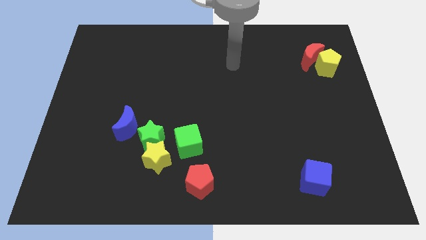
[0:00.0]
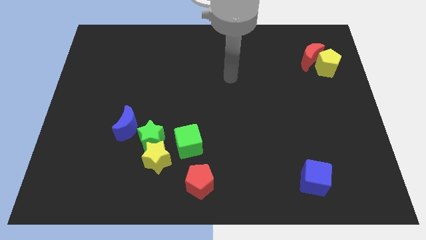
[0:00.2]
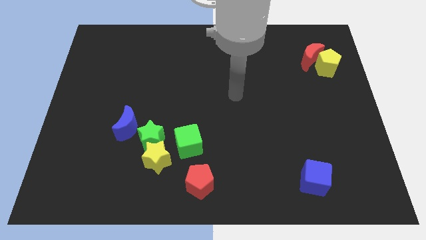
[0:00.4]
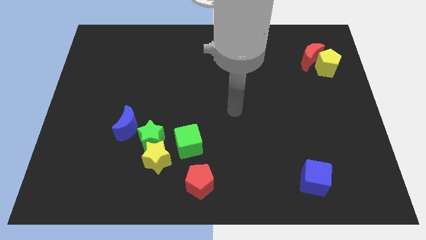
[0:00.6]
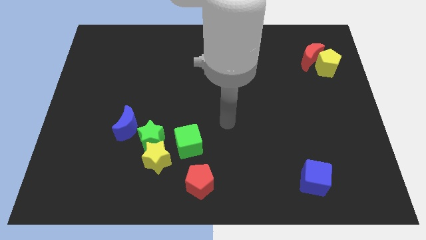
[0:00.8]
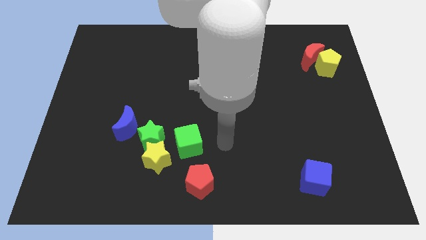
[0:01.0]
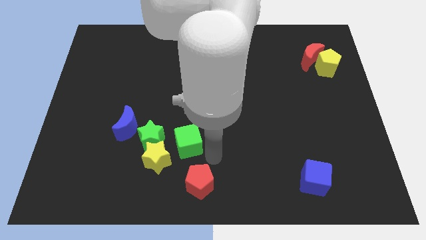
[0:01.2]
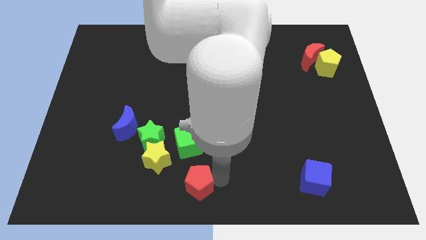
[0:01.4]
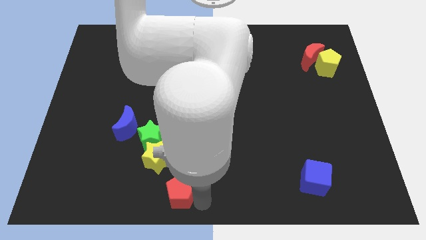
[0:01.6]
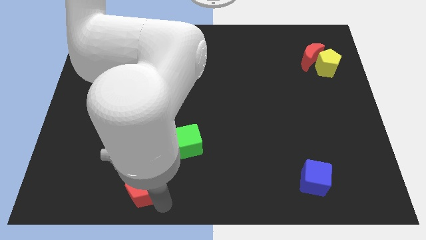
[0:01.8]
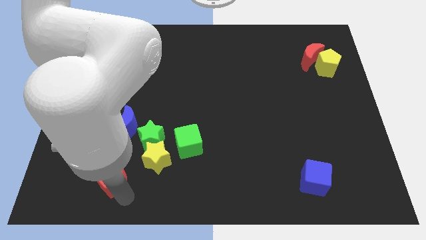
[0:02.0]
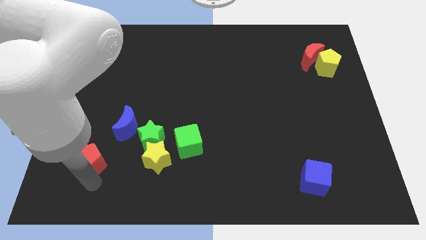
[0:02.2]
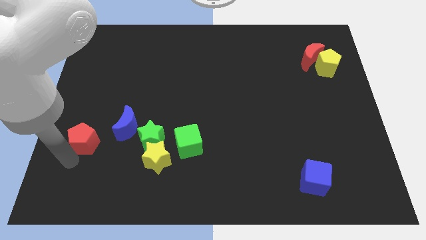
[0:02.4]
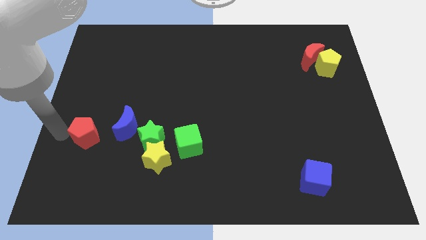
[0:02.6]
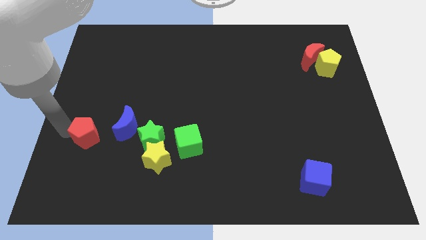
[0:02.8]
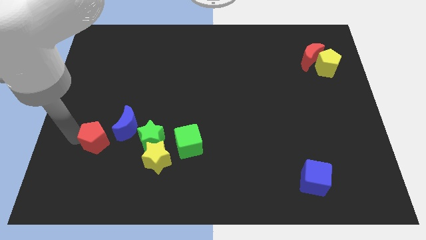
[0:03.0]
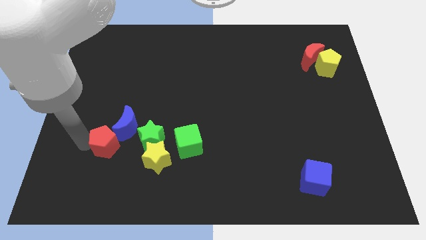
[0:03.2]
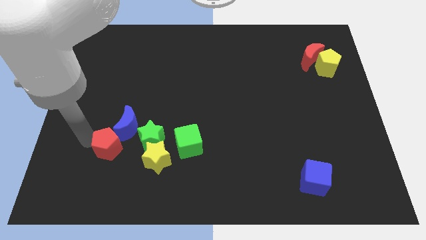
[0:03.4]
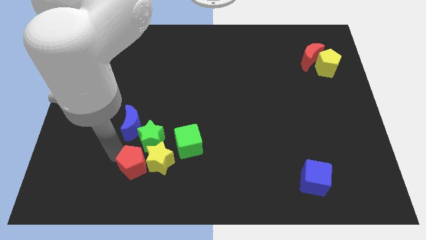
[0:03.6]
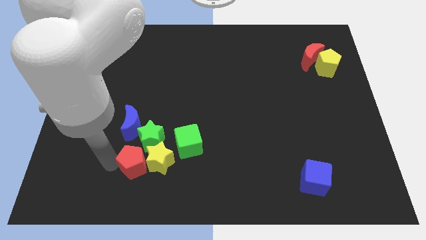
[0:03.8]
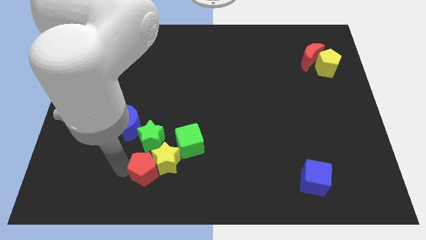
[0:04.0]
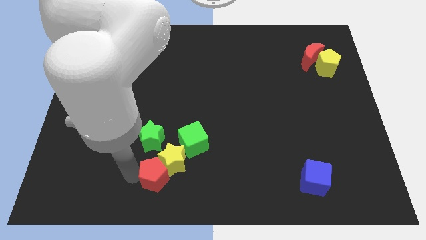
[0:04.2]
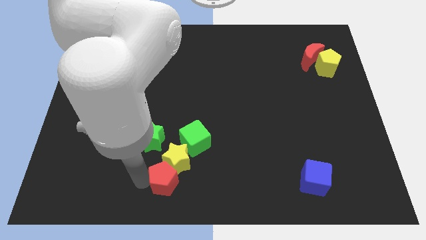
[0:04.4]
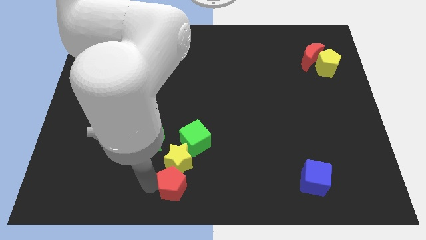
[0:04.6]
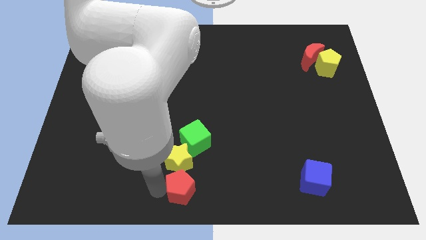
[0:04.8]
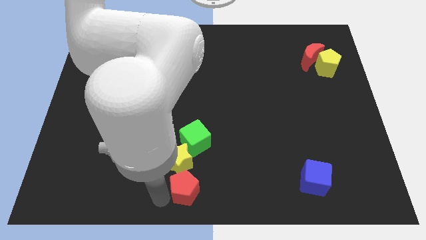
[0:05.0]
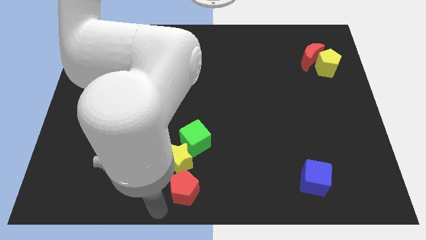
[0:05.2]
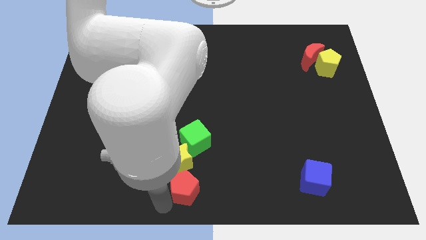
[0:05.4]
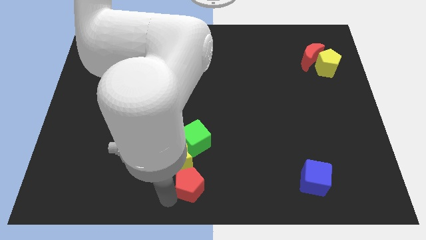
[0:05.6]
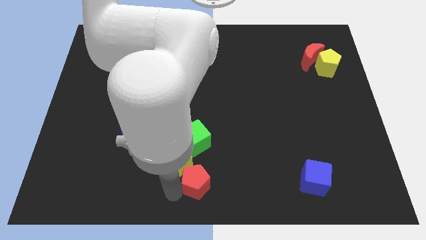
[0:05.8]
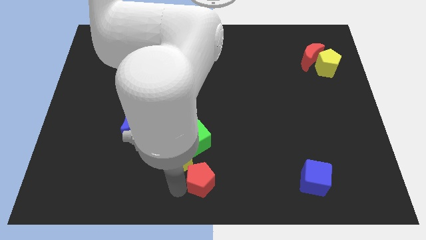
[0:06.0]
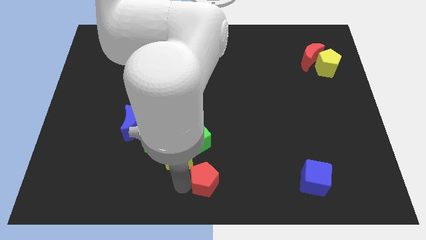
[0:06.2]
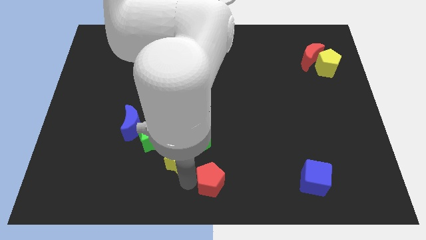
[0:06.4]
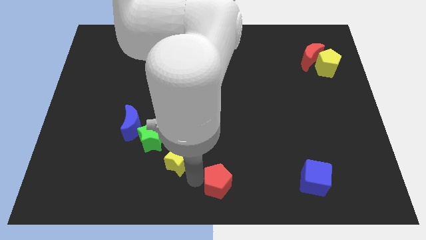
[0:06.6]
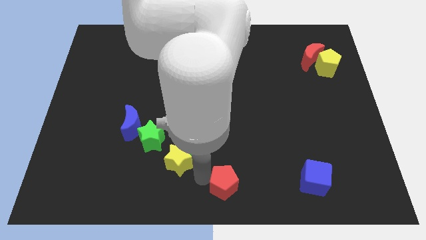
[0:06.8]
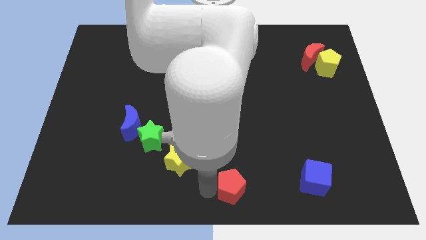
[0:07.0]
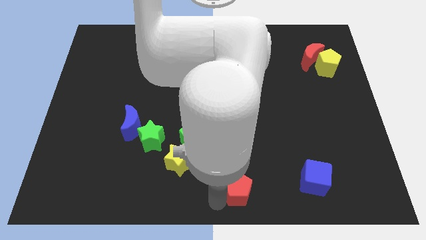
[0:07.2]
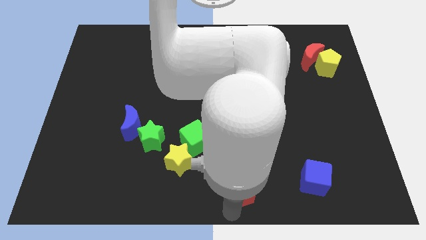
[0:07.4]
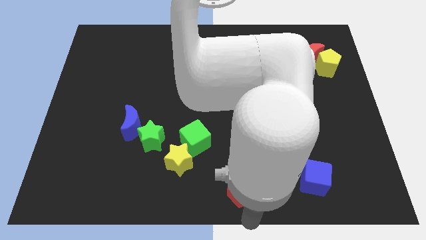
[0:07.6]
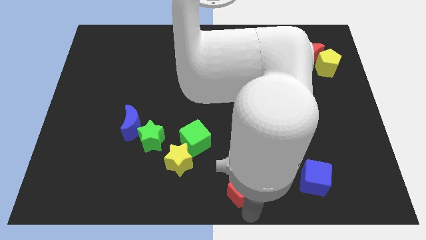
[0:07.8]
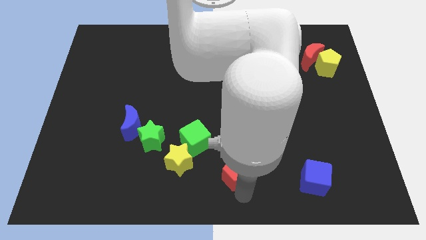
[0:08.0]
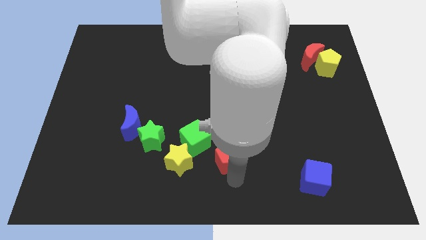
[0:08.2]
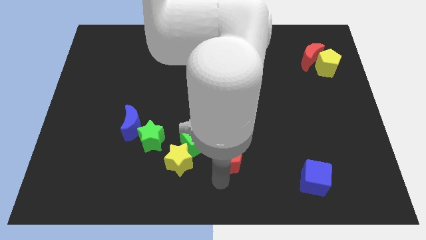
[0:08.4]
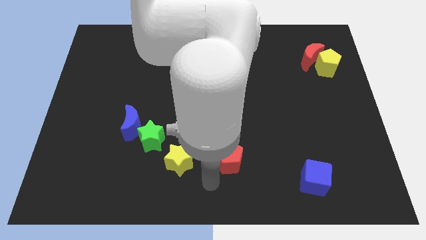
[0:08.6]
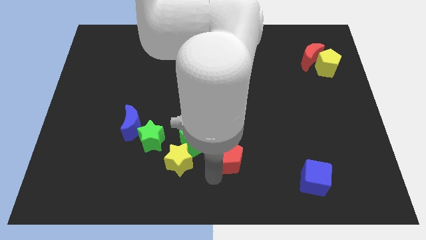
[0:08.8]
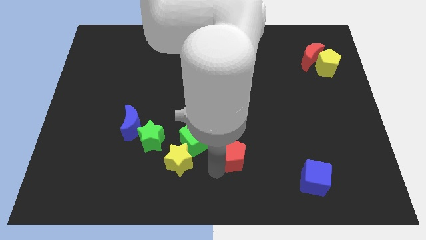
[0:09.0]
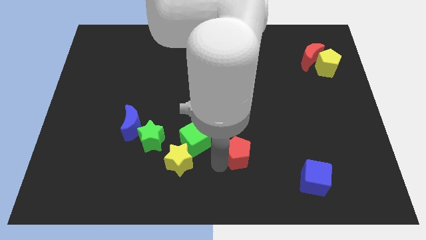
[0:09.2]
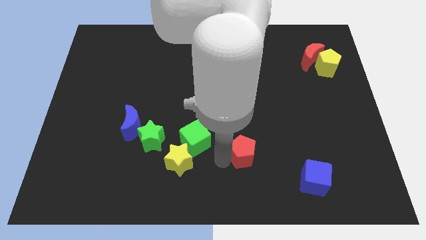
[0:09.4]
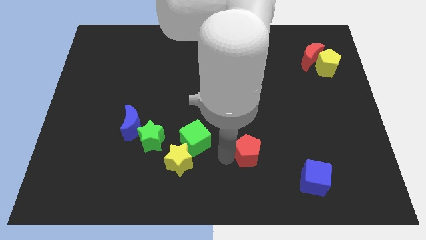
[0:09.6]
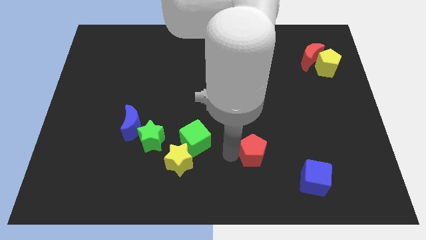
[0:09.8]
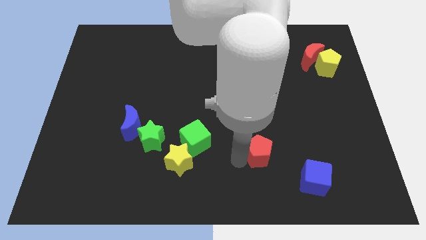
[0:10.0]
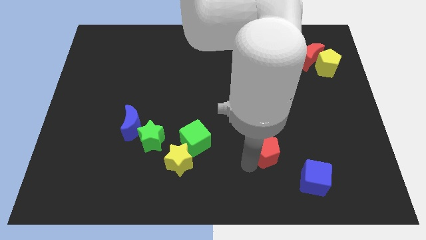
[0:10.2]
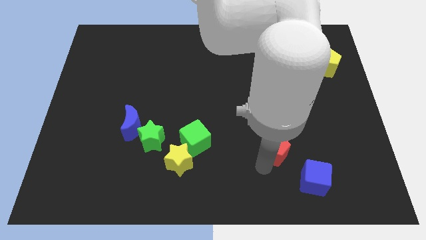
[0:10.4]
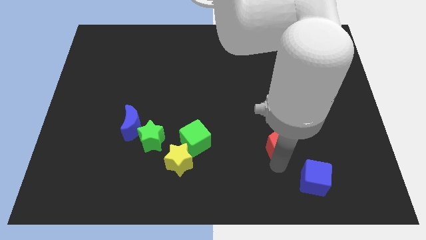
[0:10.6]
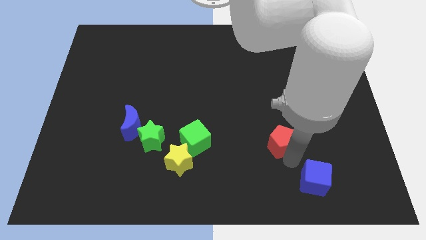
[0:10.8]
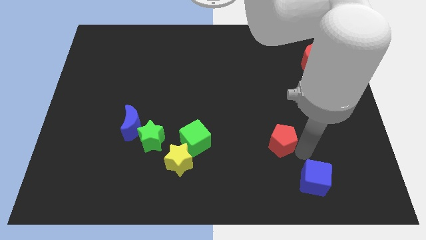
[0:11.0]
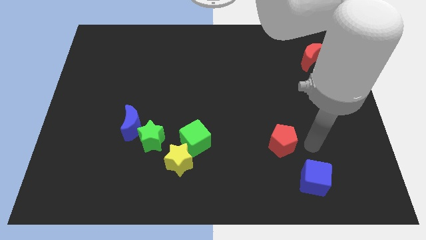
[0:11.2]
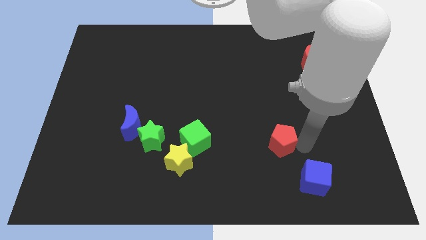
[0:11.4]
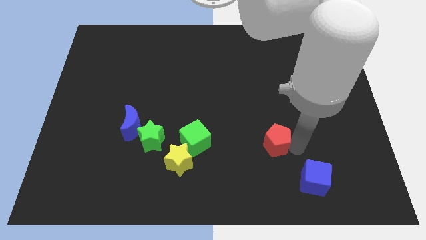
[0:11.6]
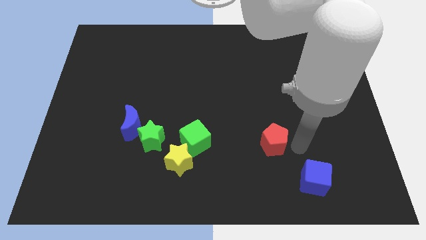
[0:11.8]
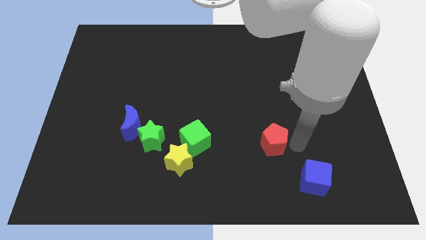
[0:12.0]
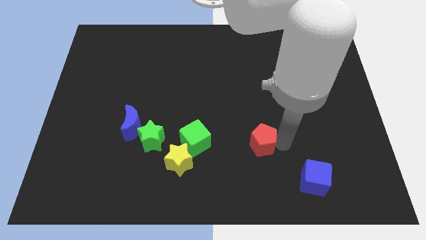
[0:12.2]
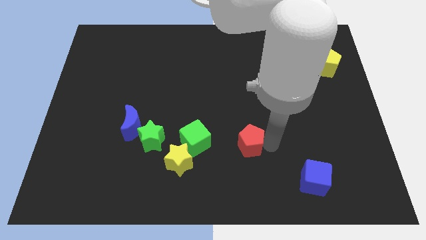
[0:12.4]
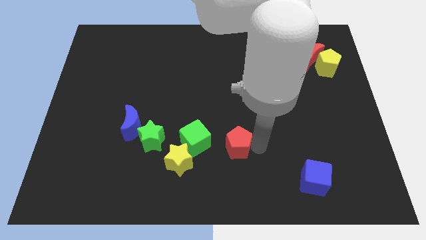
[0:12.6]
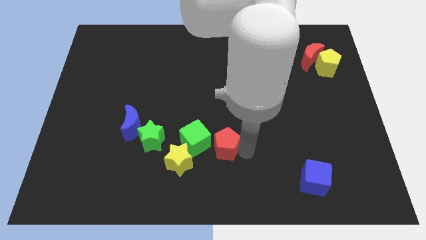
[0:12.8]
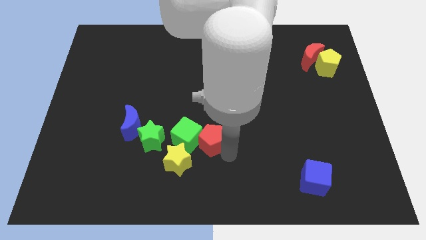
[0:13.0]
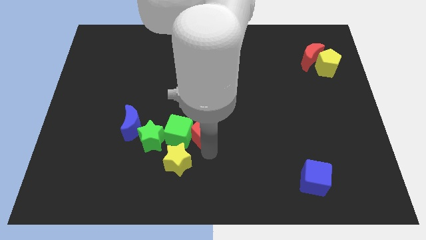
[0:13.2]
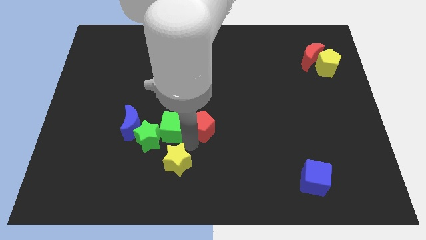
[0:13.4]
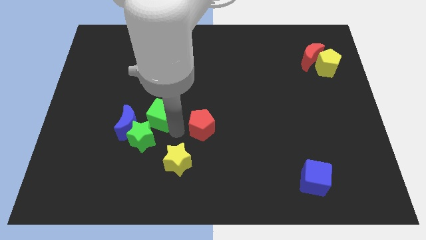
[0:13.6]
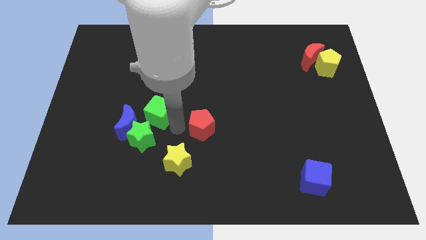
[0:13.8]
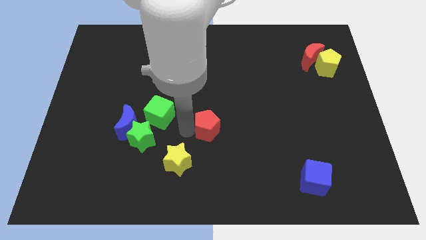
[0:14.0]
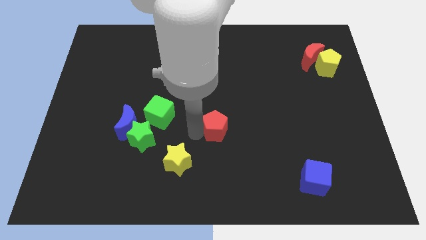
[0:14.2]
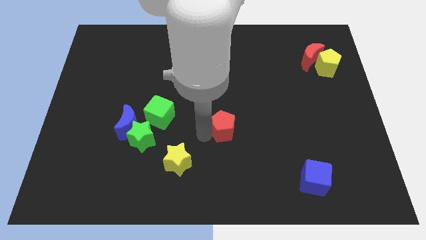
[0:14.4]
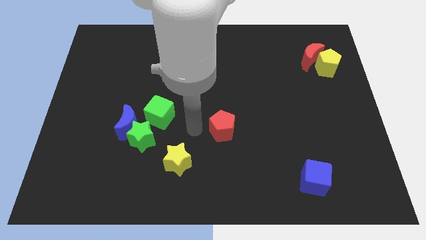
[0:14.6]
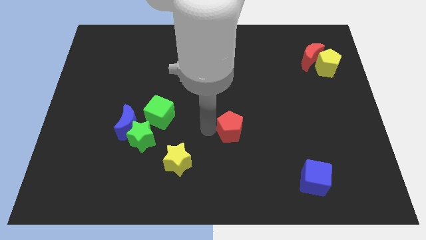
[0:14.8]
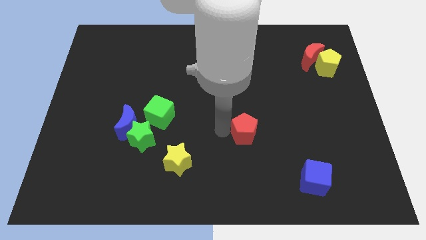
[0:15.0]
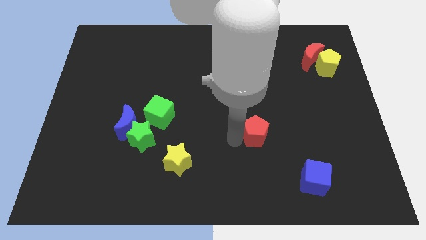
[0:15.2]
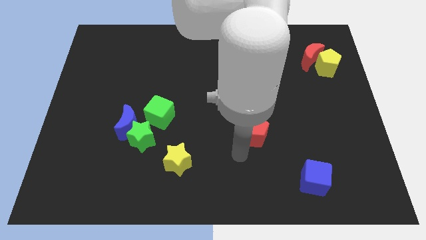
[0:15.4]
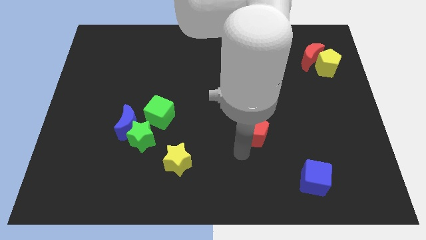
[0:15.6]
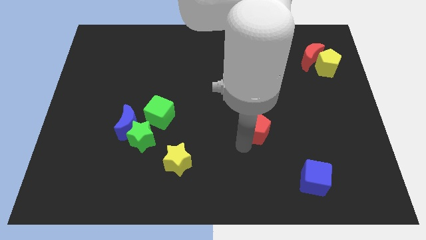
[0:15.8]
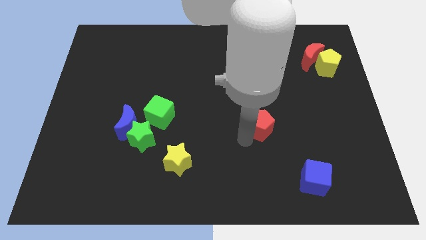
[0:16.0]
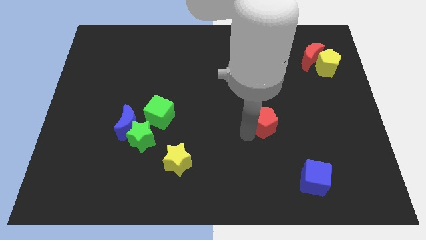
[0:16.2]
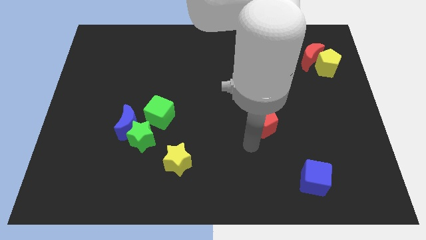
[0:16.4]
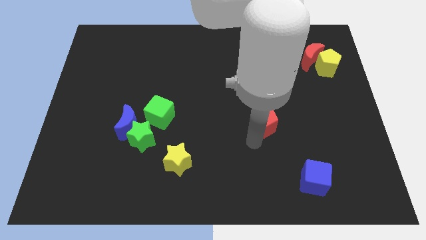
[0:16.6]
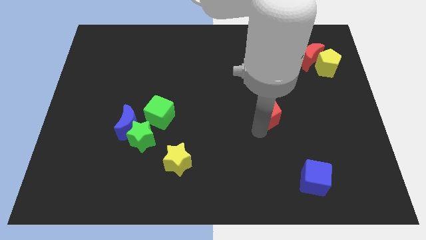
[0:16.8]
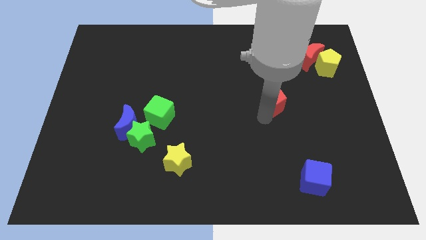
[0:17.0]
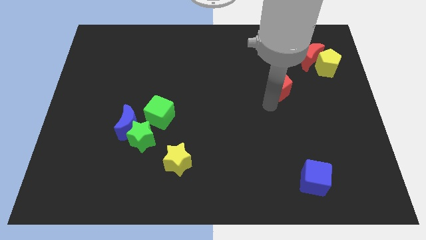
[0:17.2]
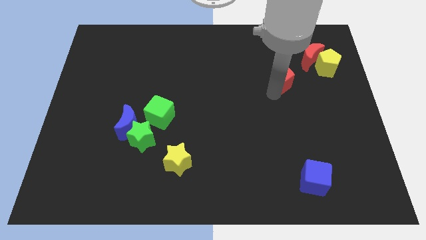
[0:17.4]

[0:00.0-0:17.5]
put the red pentagon to the bottom left side of the red moon
